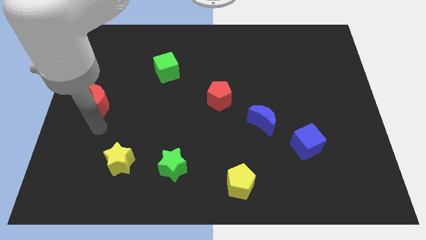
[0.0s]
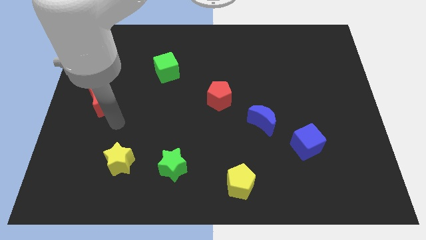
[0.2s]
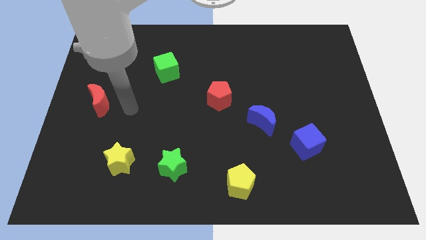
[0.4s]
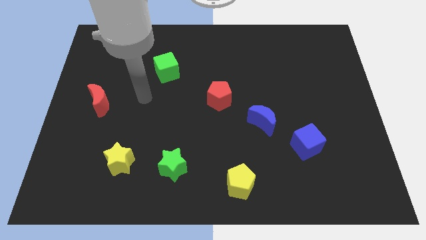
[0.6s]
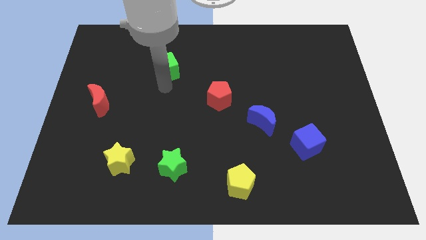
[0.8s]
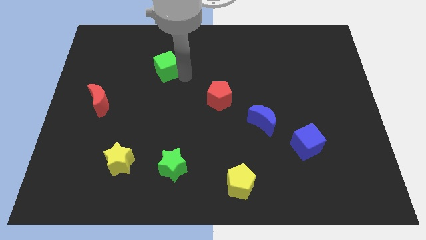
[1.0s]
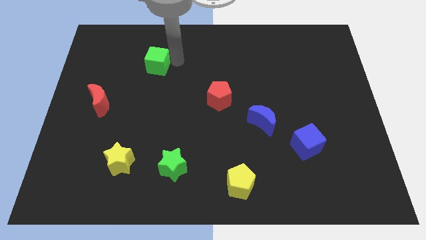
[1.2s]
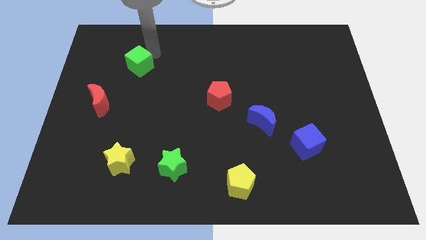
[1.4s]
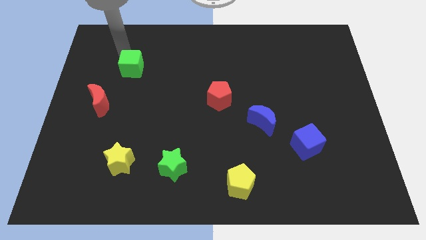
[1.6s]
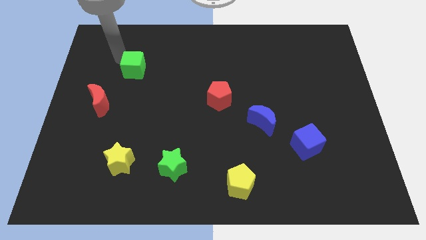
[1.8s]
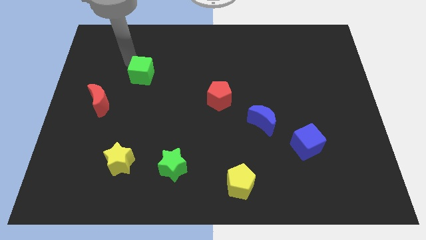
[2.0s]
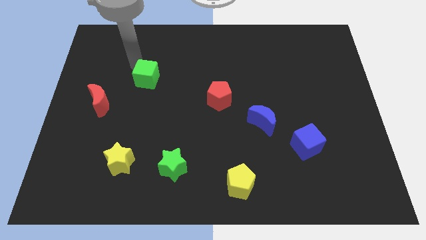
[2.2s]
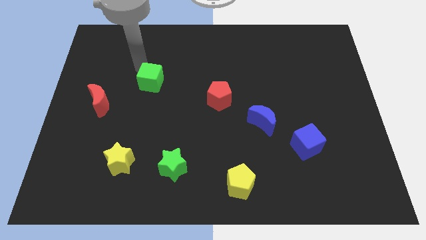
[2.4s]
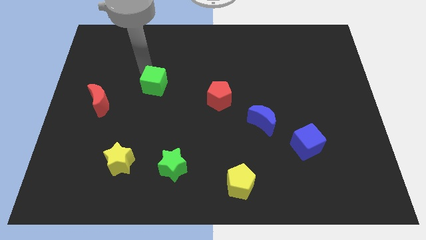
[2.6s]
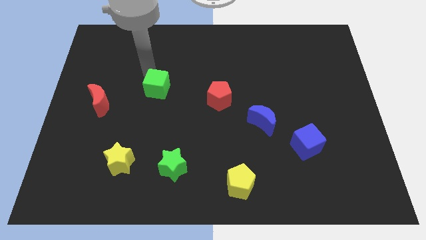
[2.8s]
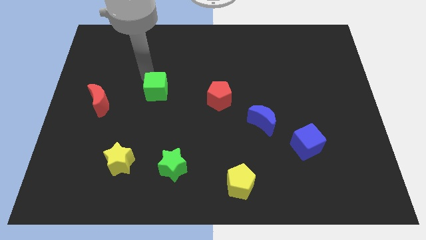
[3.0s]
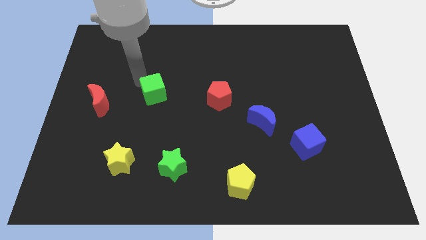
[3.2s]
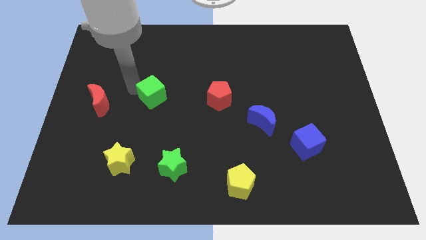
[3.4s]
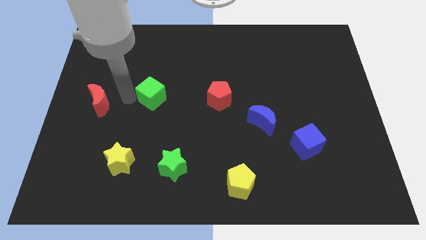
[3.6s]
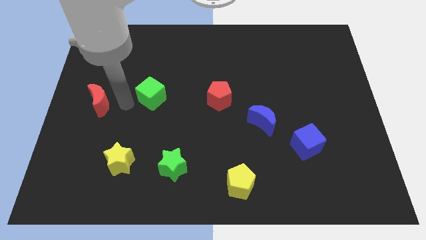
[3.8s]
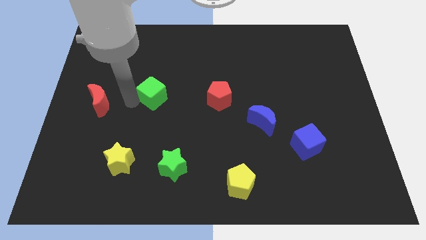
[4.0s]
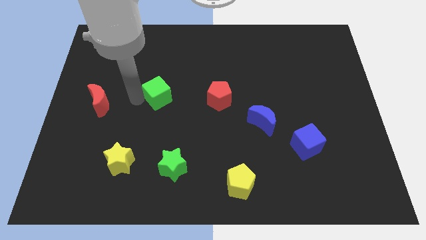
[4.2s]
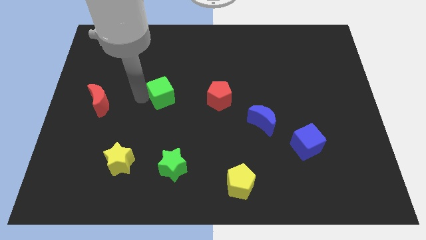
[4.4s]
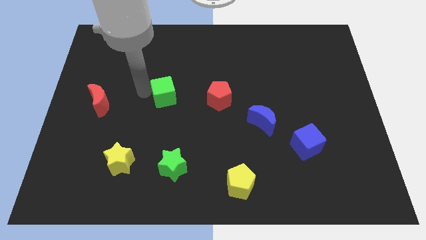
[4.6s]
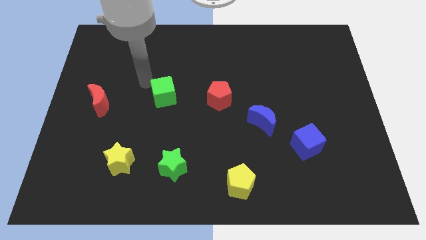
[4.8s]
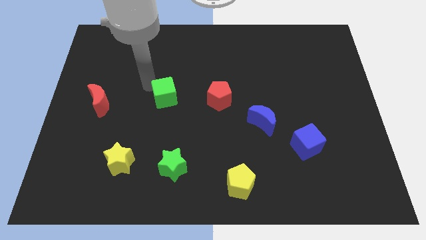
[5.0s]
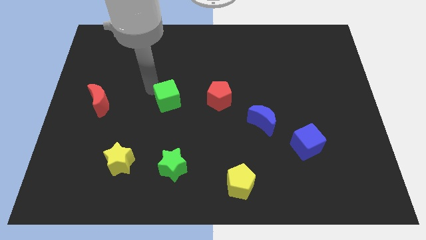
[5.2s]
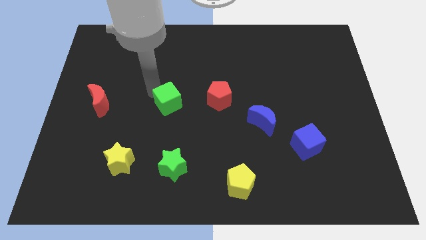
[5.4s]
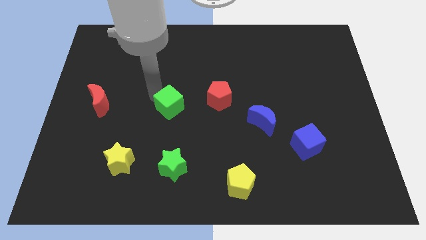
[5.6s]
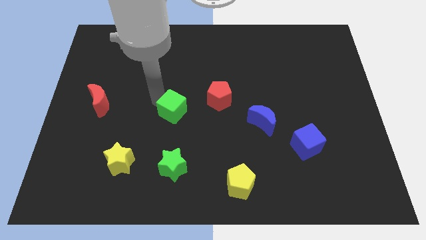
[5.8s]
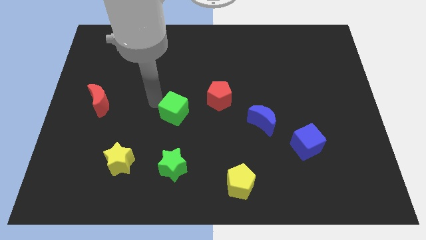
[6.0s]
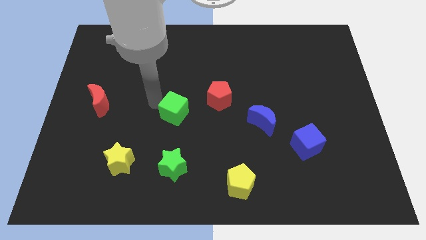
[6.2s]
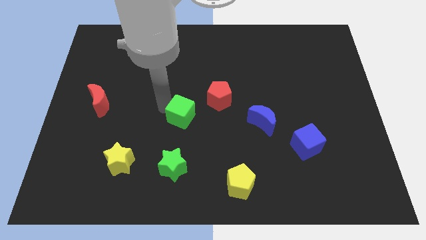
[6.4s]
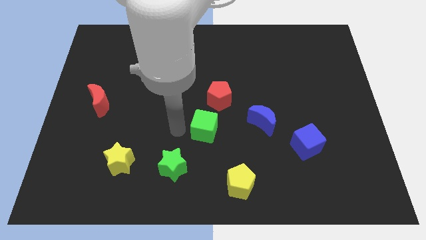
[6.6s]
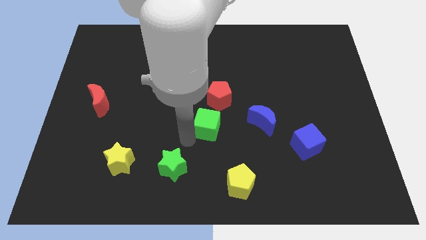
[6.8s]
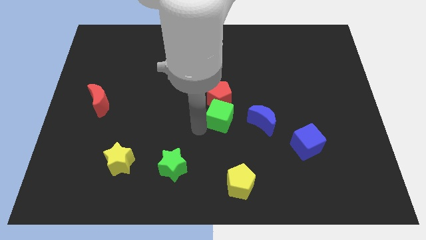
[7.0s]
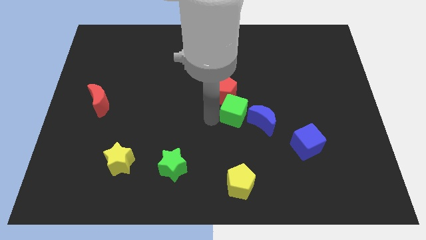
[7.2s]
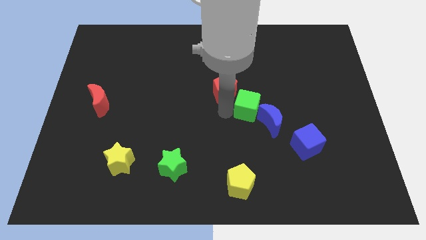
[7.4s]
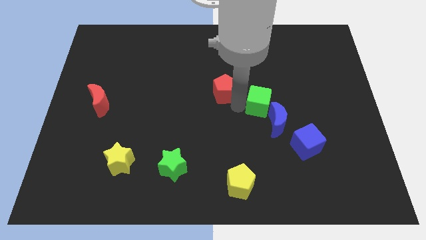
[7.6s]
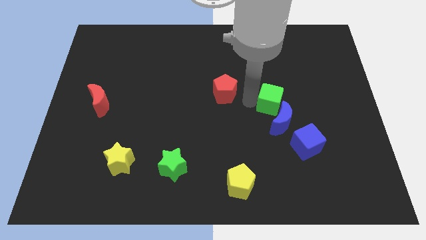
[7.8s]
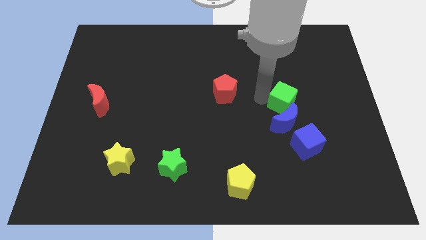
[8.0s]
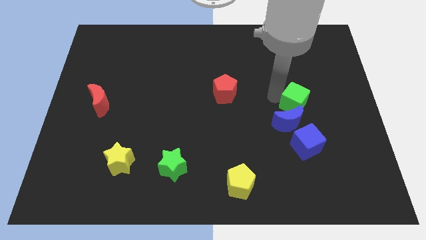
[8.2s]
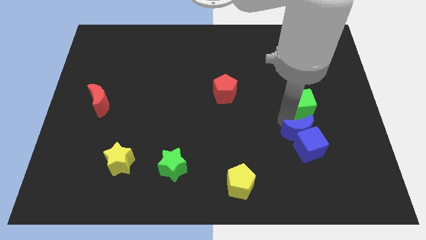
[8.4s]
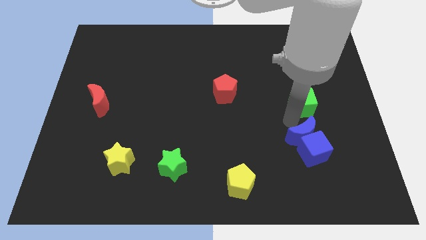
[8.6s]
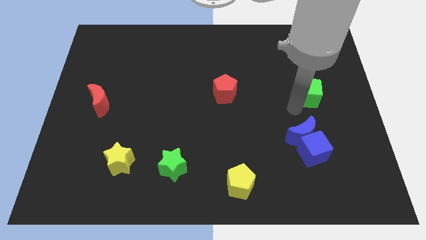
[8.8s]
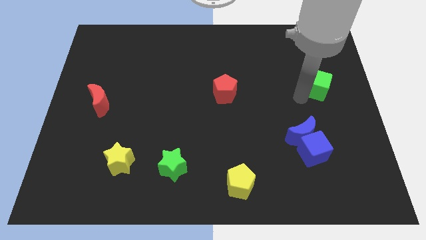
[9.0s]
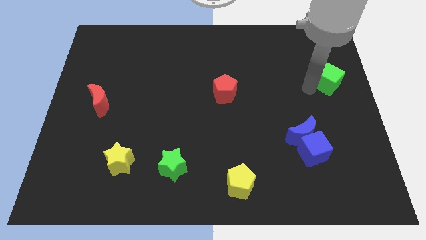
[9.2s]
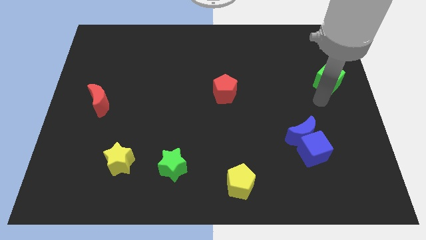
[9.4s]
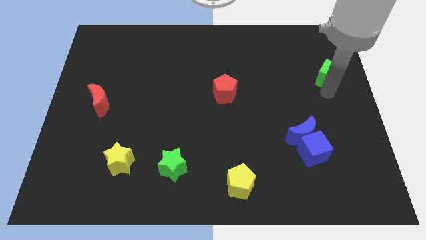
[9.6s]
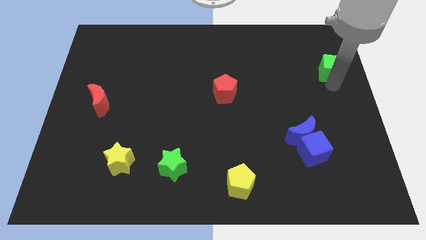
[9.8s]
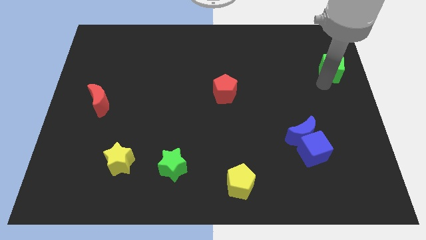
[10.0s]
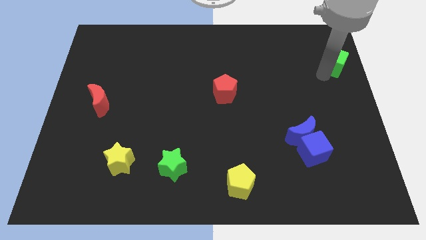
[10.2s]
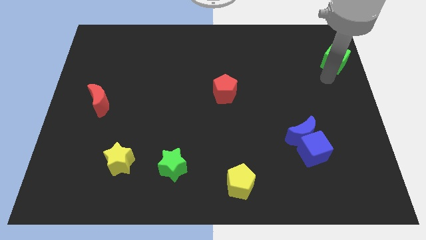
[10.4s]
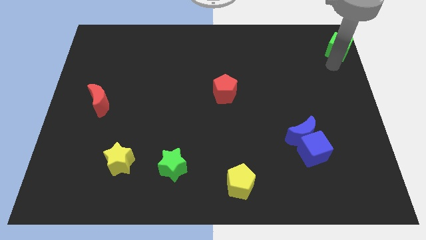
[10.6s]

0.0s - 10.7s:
put the green cube to the upper right corner
